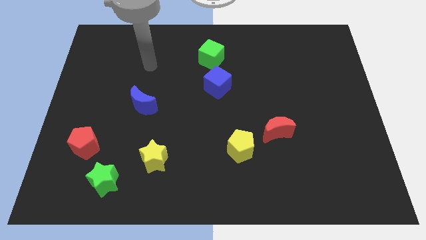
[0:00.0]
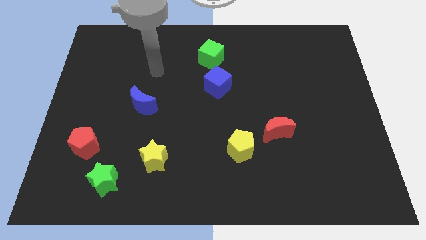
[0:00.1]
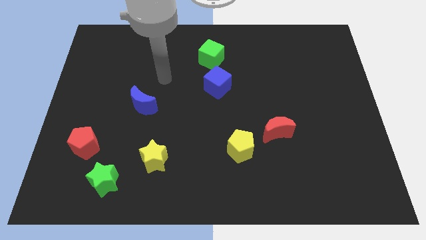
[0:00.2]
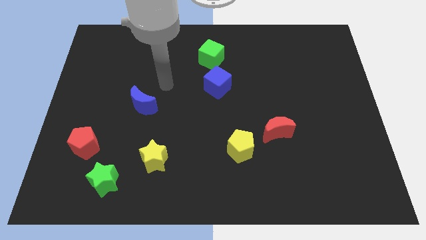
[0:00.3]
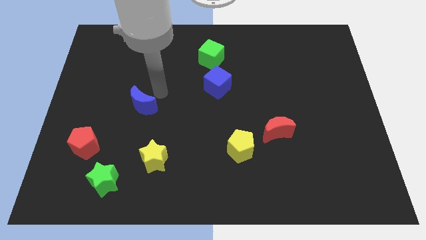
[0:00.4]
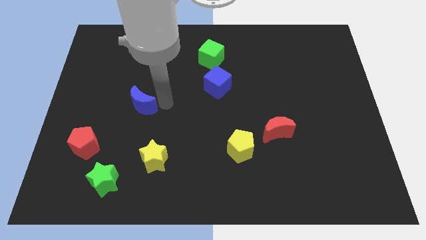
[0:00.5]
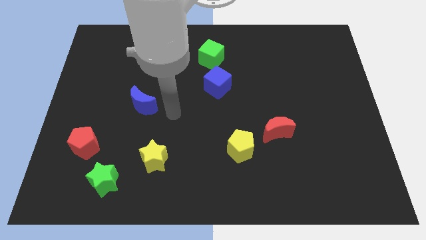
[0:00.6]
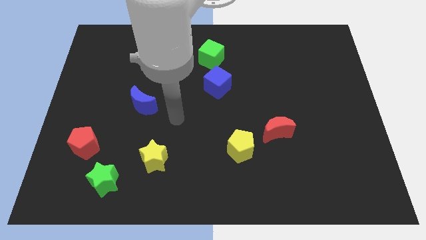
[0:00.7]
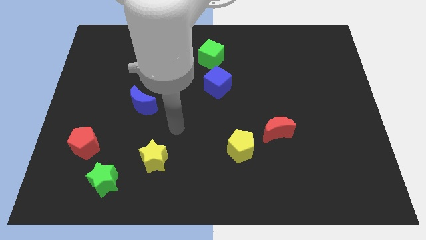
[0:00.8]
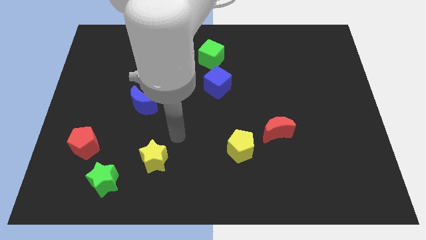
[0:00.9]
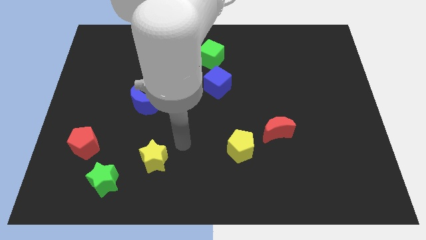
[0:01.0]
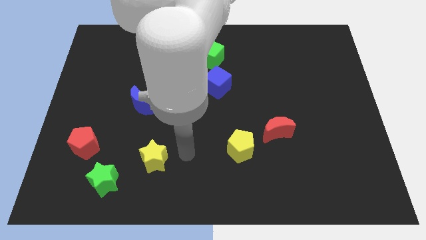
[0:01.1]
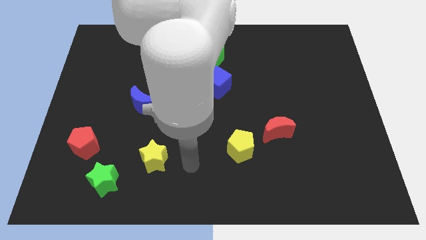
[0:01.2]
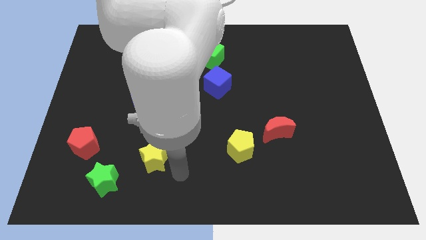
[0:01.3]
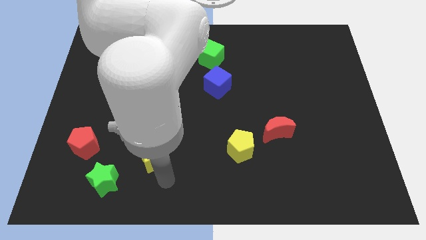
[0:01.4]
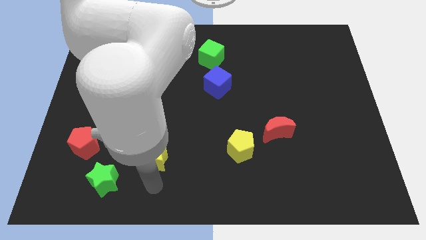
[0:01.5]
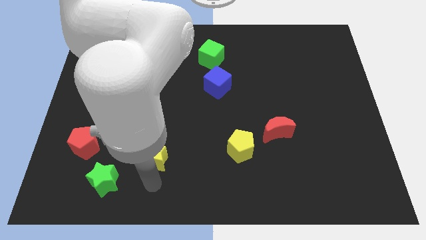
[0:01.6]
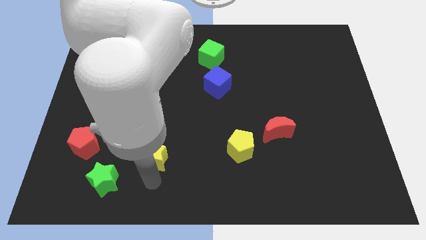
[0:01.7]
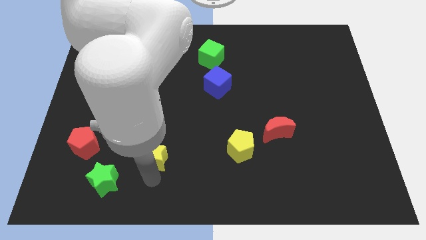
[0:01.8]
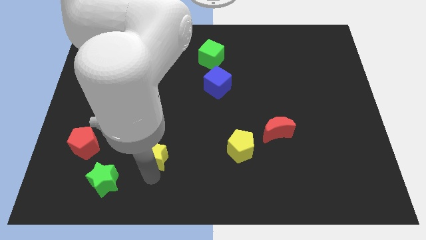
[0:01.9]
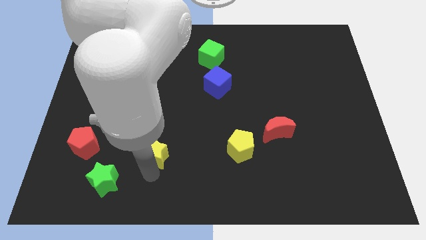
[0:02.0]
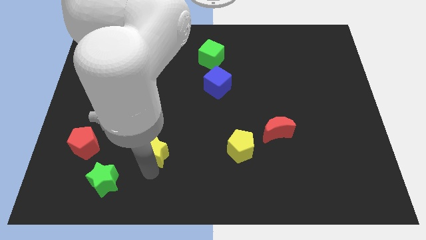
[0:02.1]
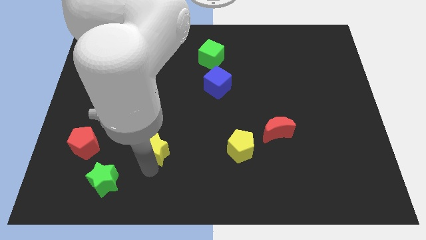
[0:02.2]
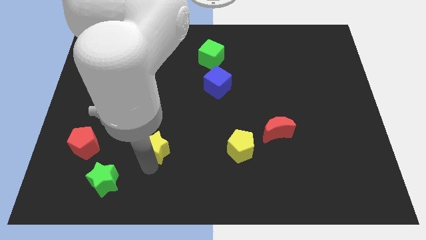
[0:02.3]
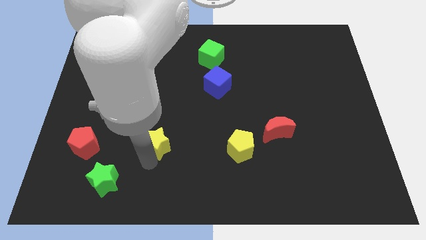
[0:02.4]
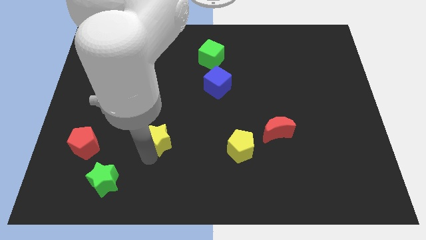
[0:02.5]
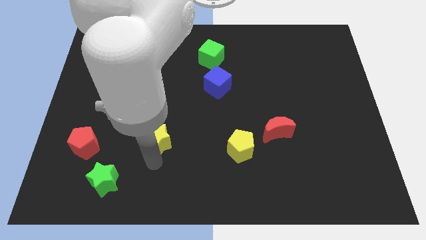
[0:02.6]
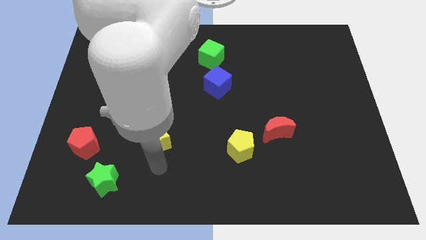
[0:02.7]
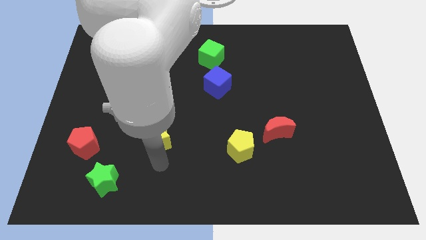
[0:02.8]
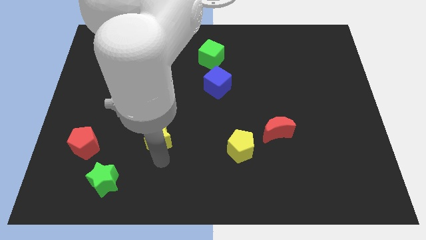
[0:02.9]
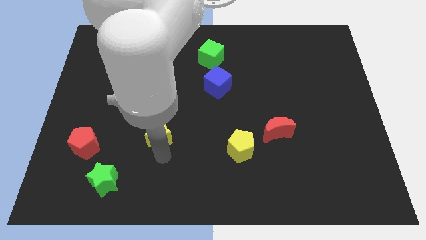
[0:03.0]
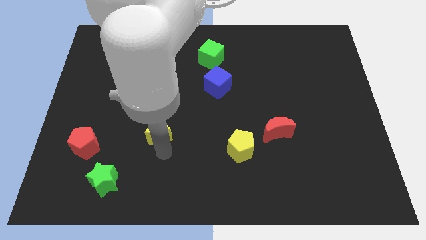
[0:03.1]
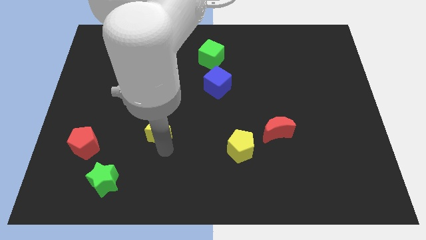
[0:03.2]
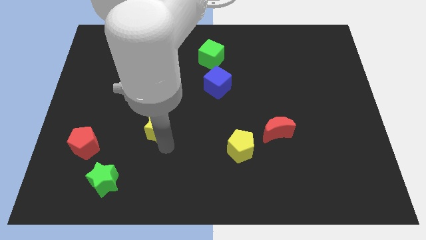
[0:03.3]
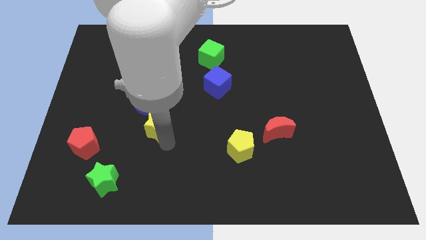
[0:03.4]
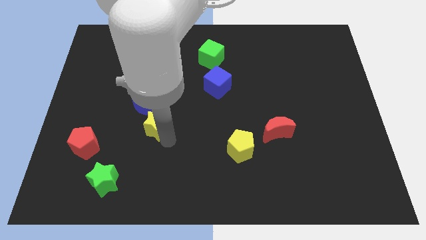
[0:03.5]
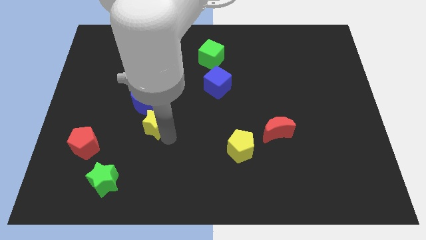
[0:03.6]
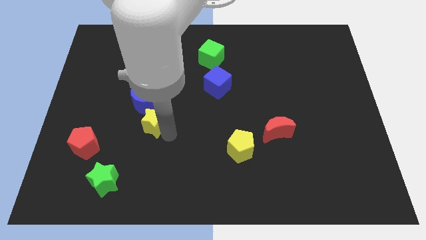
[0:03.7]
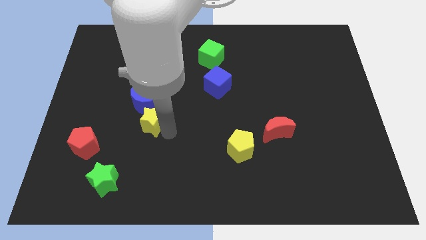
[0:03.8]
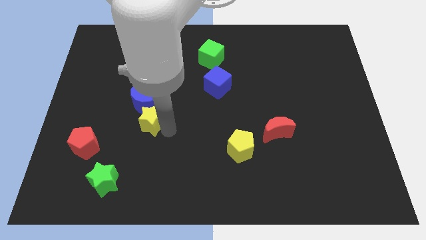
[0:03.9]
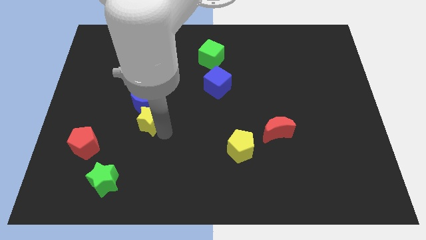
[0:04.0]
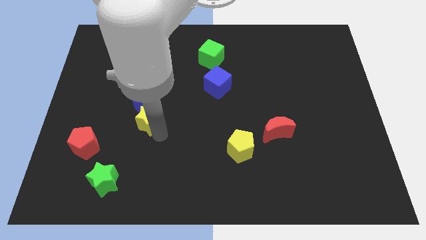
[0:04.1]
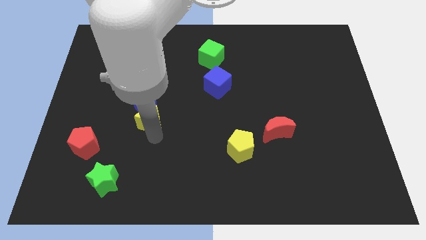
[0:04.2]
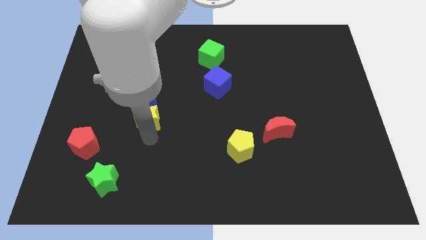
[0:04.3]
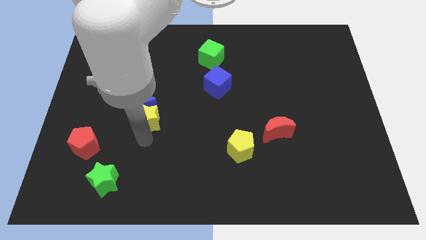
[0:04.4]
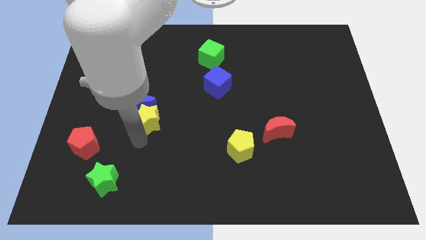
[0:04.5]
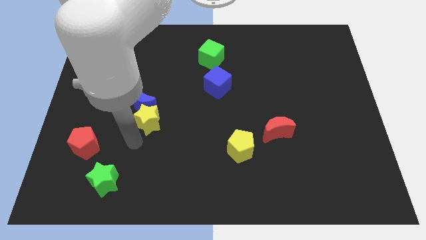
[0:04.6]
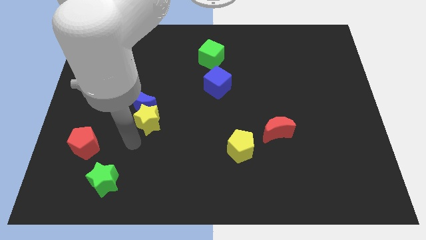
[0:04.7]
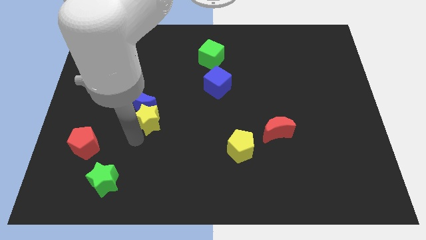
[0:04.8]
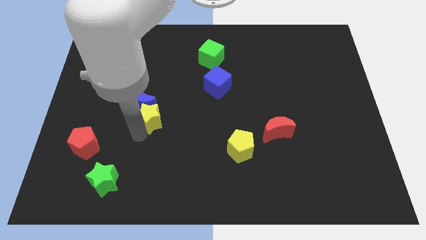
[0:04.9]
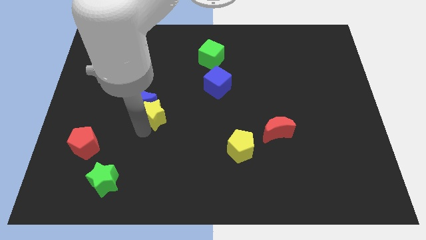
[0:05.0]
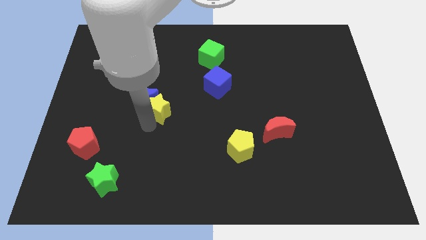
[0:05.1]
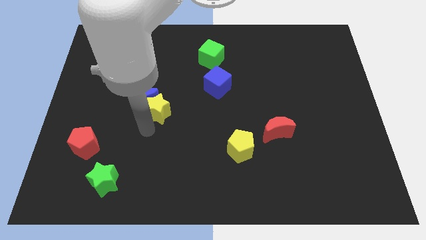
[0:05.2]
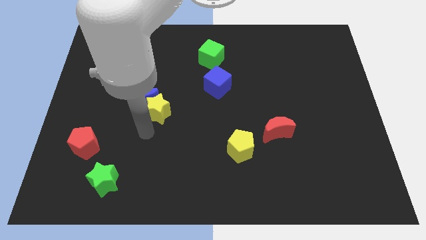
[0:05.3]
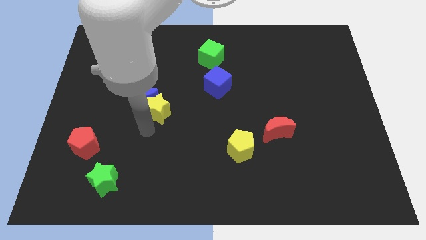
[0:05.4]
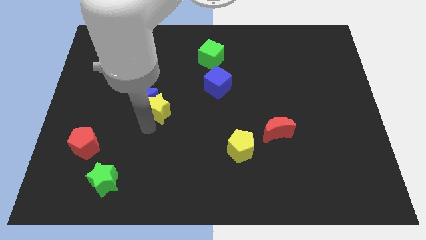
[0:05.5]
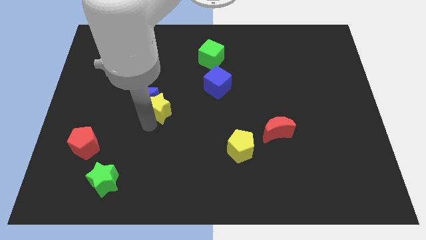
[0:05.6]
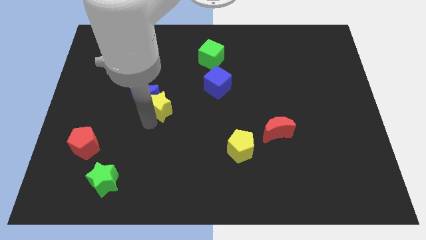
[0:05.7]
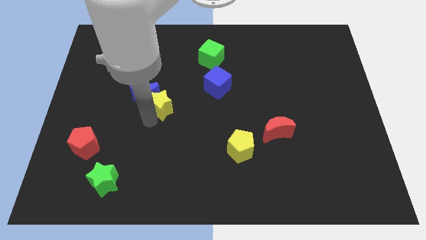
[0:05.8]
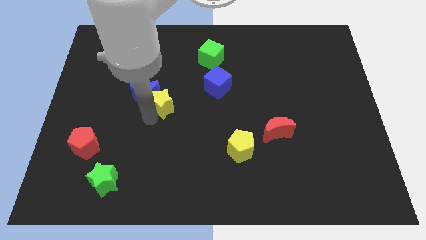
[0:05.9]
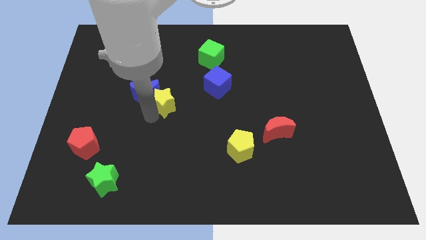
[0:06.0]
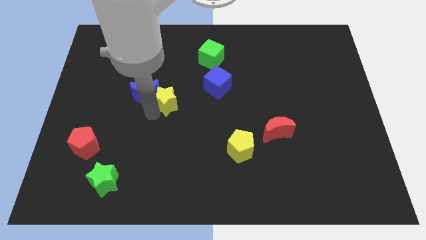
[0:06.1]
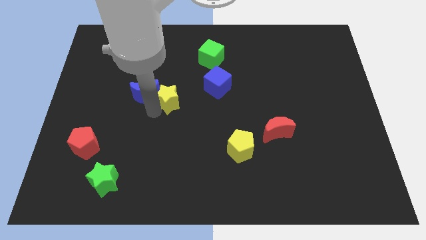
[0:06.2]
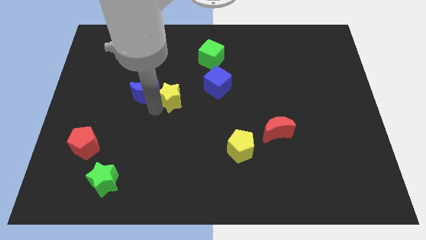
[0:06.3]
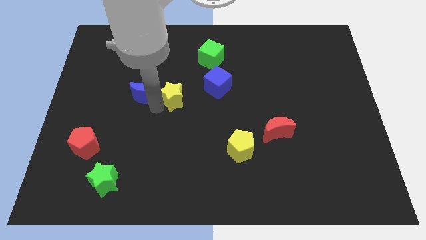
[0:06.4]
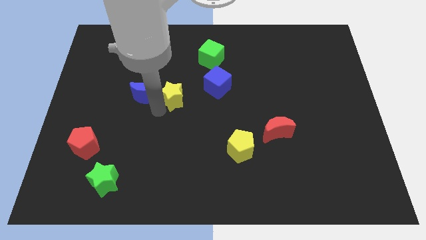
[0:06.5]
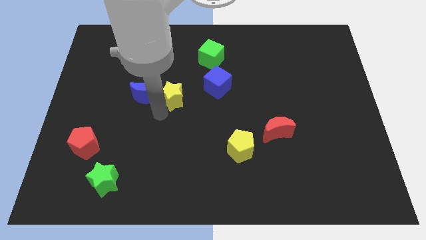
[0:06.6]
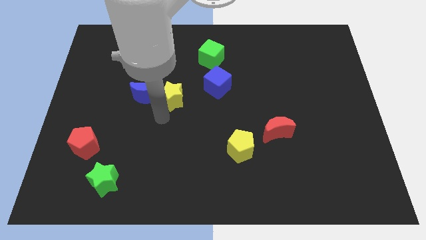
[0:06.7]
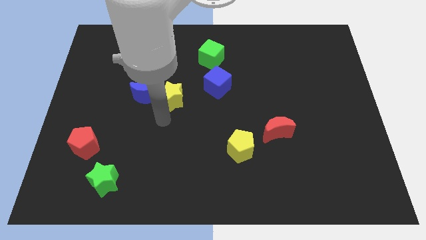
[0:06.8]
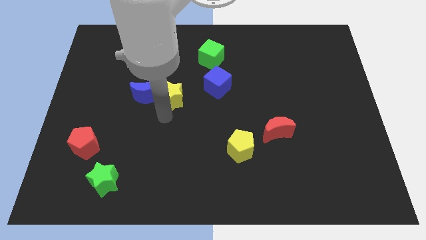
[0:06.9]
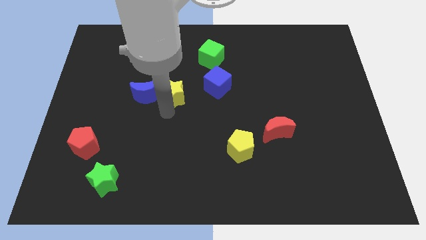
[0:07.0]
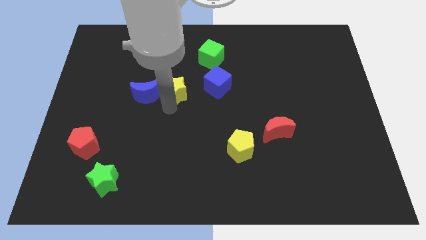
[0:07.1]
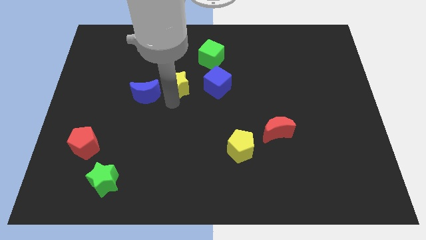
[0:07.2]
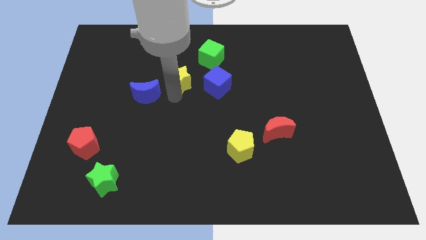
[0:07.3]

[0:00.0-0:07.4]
push the yellow star diagonally down and to the left of the green cube
